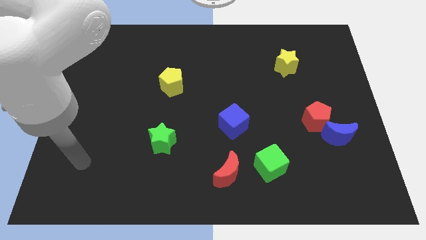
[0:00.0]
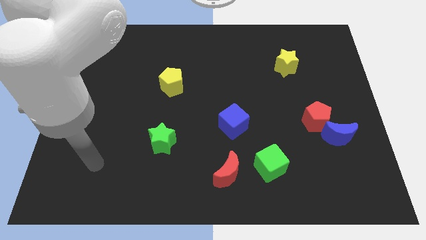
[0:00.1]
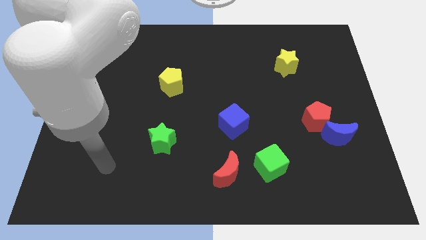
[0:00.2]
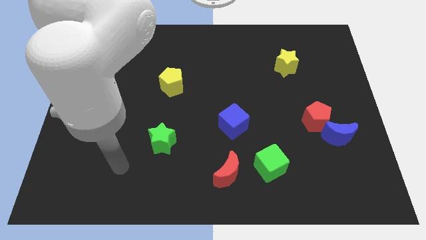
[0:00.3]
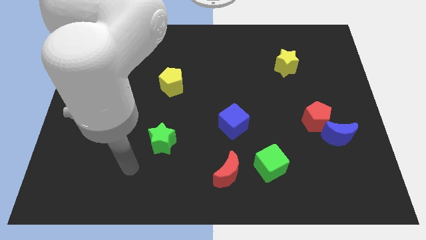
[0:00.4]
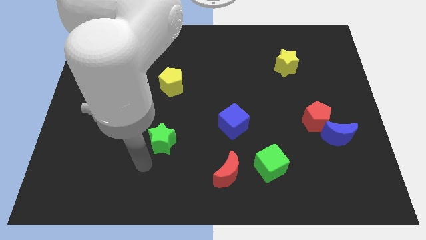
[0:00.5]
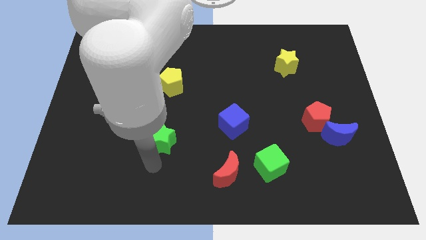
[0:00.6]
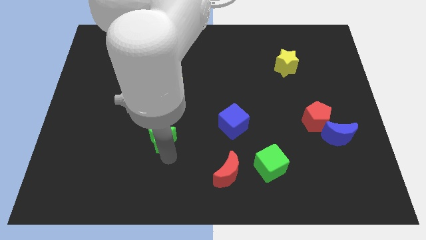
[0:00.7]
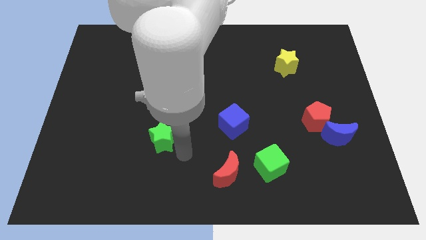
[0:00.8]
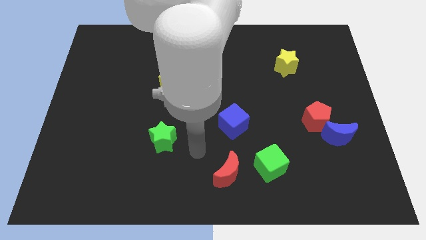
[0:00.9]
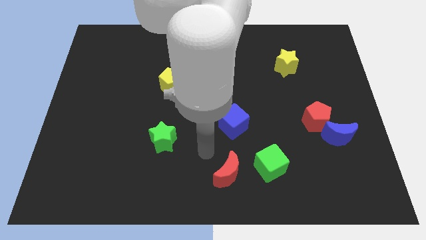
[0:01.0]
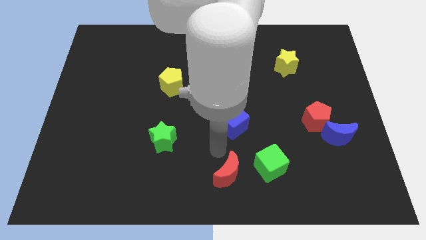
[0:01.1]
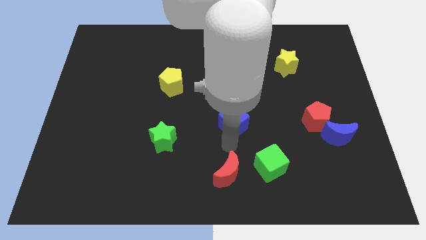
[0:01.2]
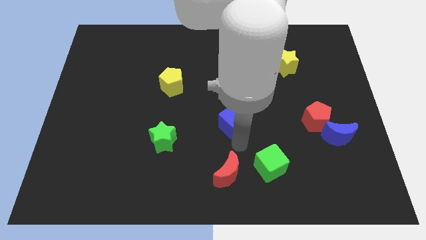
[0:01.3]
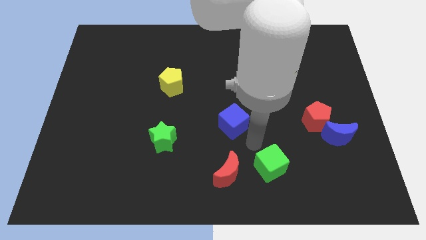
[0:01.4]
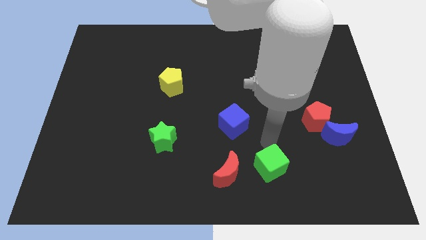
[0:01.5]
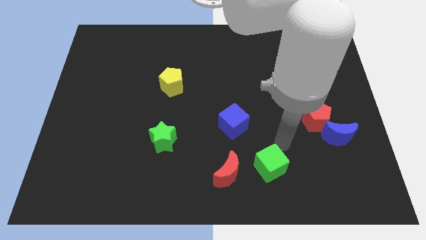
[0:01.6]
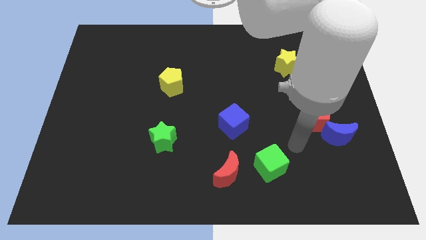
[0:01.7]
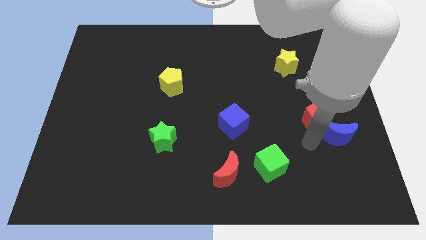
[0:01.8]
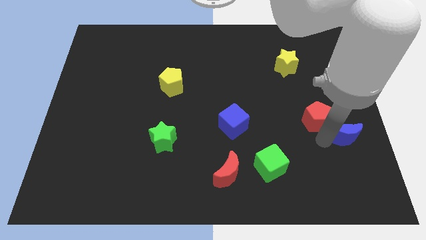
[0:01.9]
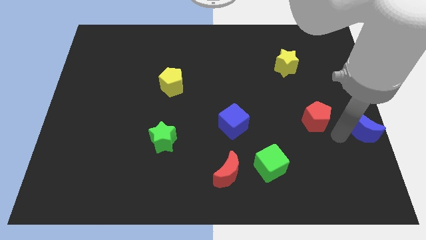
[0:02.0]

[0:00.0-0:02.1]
move the red pentagon away from the blue moon

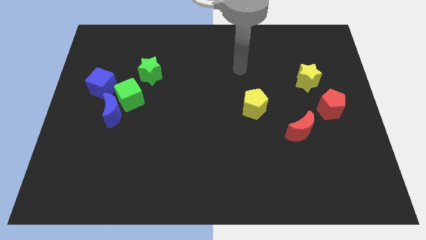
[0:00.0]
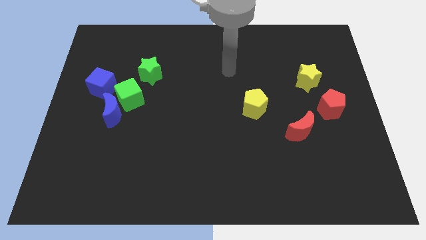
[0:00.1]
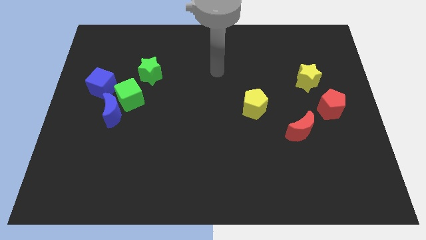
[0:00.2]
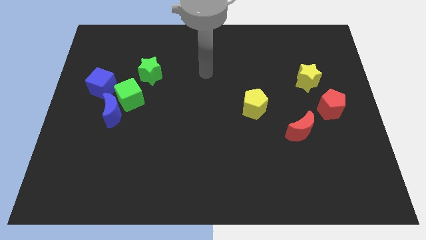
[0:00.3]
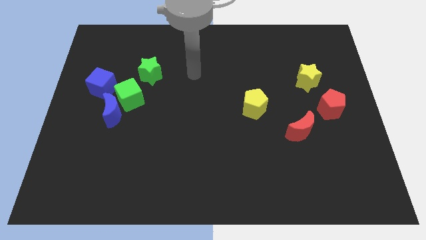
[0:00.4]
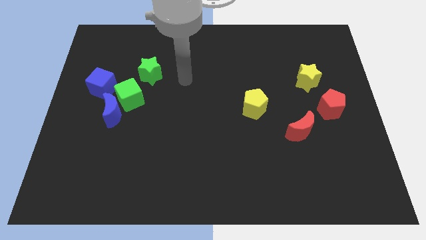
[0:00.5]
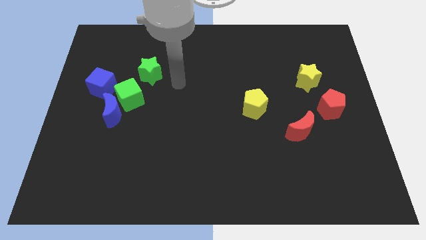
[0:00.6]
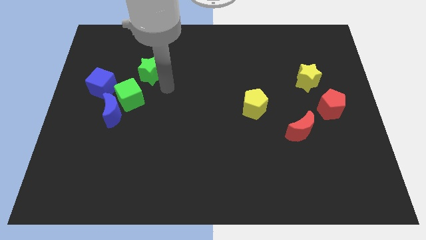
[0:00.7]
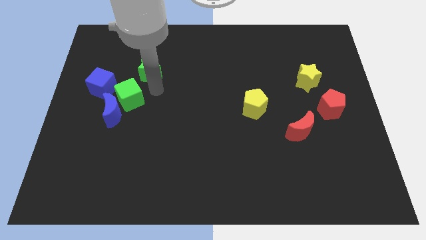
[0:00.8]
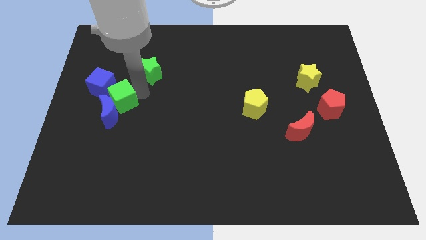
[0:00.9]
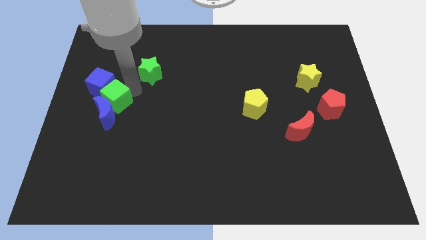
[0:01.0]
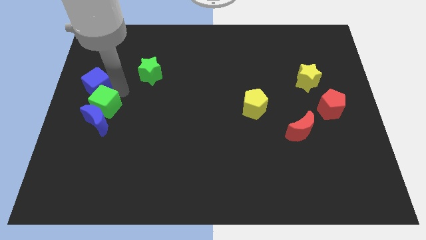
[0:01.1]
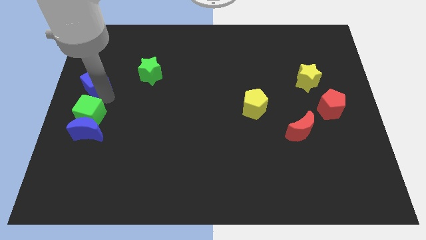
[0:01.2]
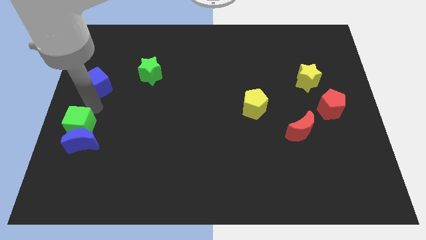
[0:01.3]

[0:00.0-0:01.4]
separate the blue moon from the green cube and blue cube

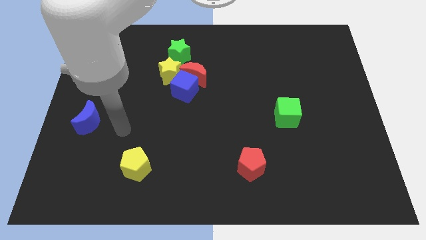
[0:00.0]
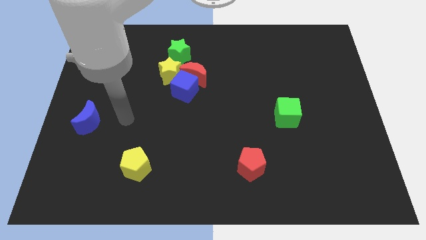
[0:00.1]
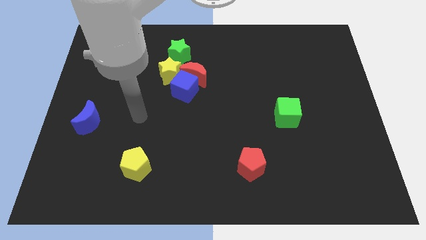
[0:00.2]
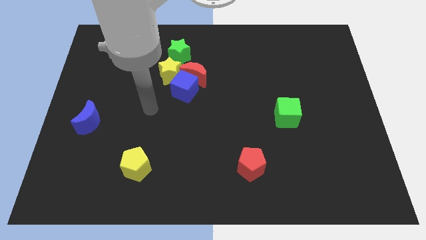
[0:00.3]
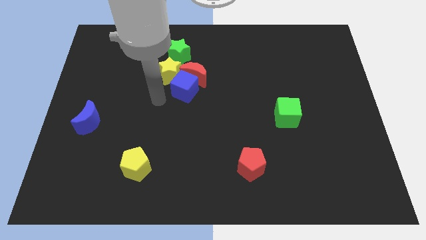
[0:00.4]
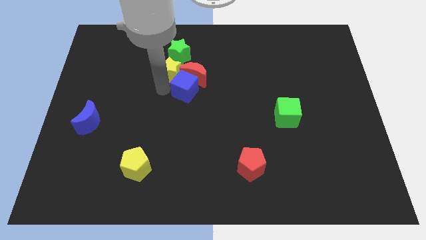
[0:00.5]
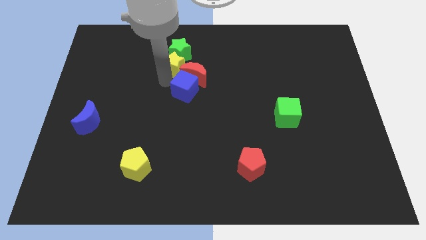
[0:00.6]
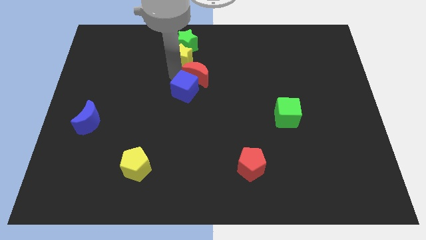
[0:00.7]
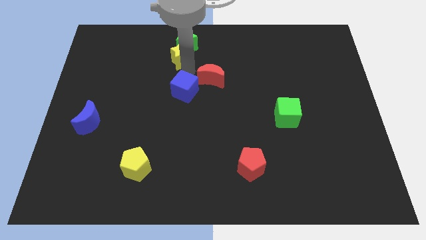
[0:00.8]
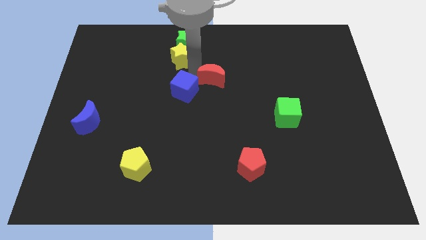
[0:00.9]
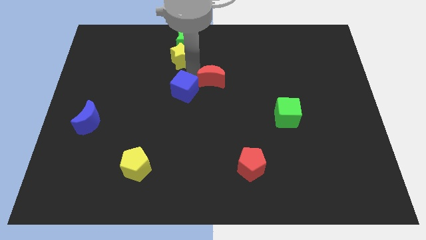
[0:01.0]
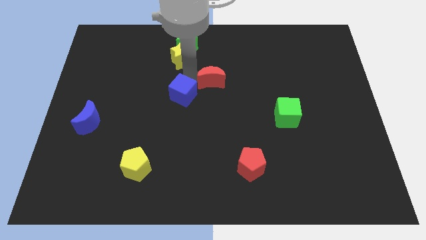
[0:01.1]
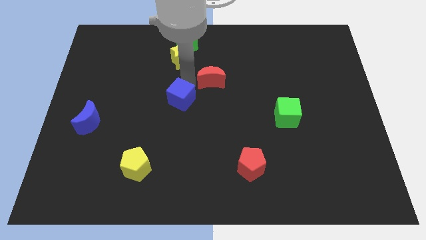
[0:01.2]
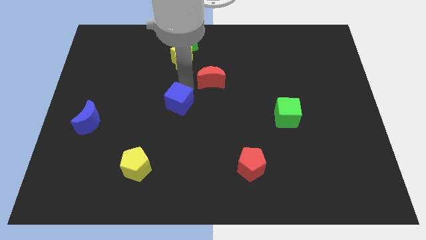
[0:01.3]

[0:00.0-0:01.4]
pull the blue cube apart from the red moon and yellow star

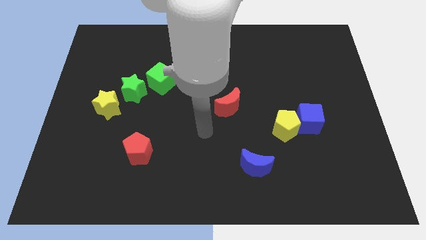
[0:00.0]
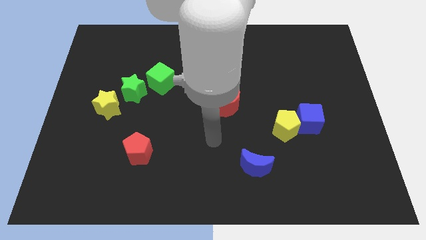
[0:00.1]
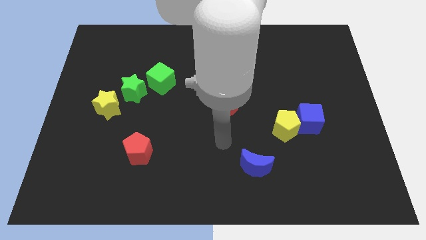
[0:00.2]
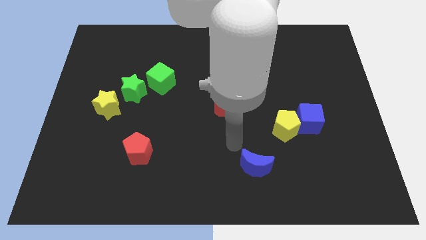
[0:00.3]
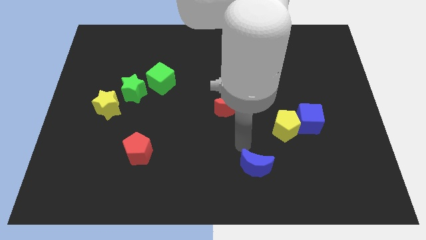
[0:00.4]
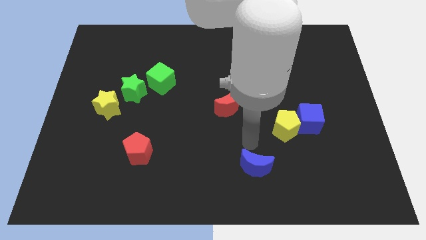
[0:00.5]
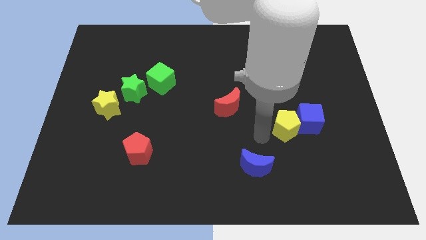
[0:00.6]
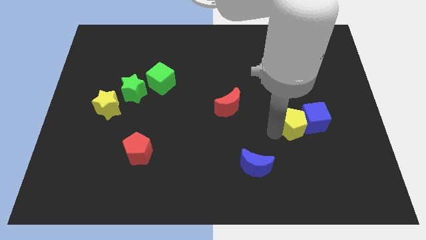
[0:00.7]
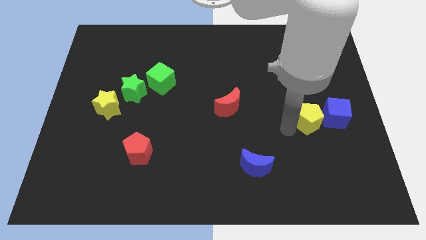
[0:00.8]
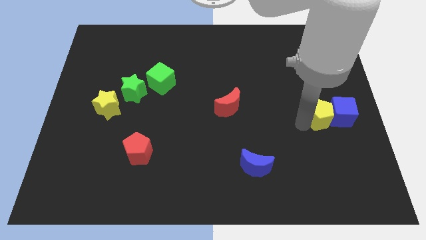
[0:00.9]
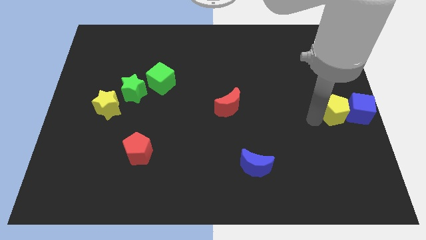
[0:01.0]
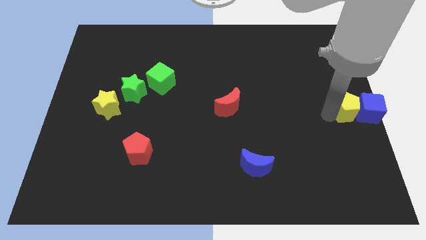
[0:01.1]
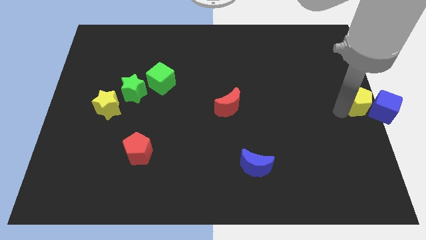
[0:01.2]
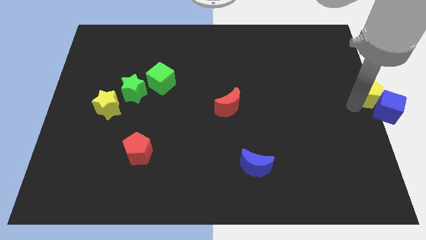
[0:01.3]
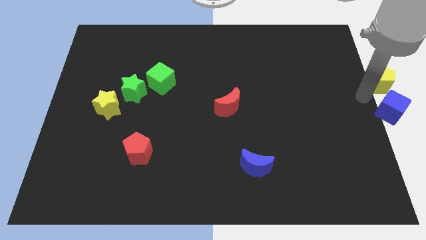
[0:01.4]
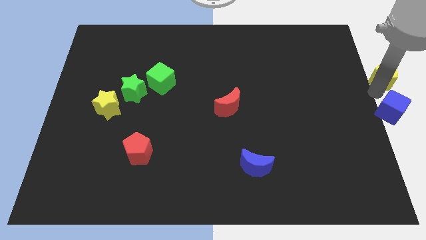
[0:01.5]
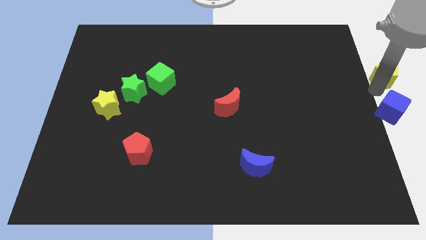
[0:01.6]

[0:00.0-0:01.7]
pull the blue cube apart from the yellow pentagon

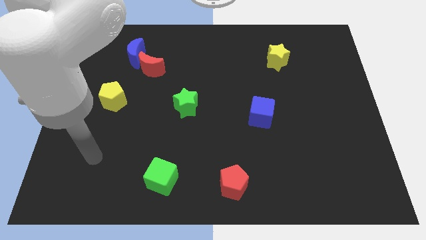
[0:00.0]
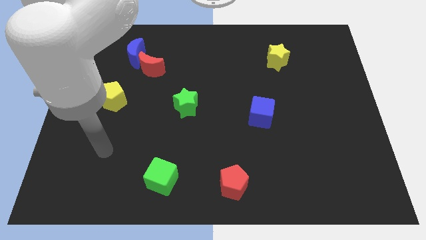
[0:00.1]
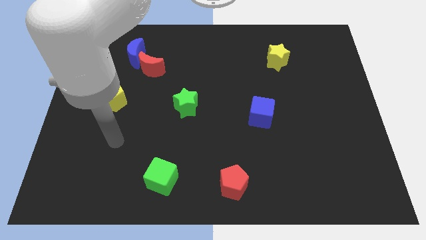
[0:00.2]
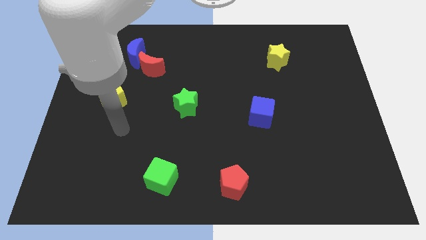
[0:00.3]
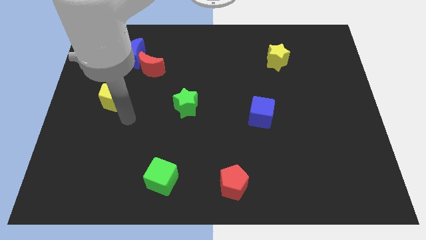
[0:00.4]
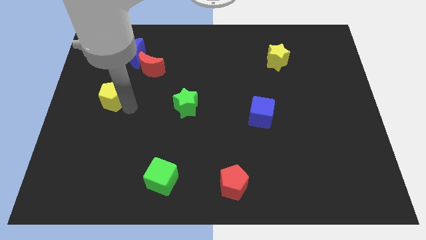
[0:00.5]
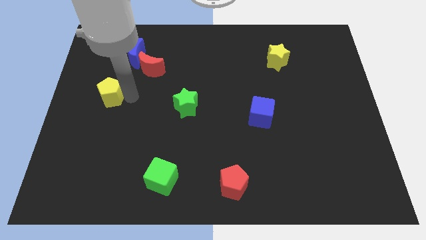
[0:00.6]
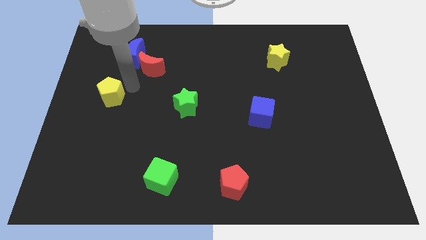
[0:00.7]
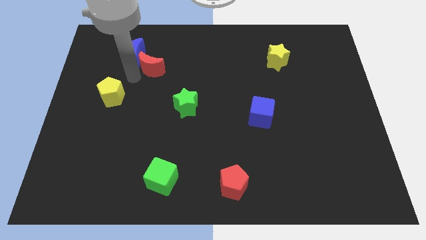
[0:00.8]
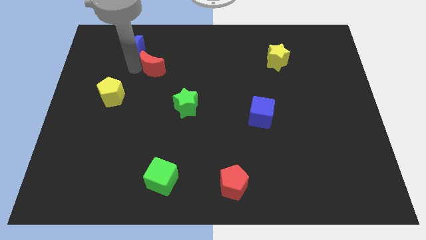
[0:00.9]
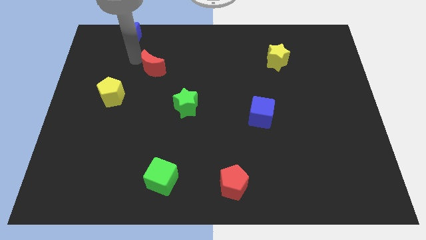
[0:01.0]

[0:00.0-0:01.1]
separate the red moon from the blue moon

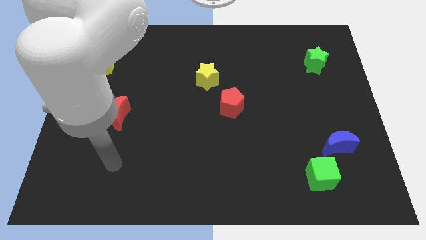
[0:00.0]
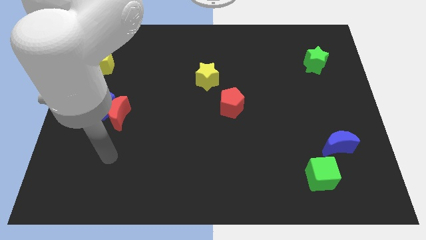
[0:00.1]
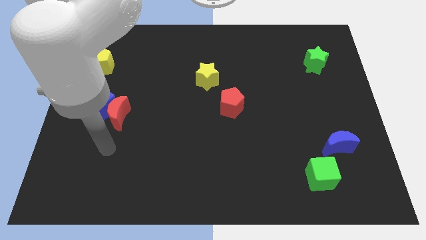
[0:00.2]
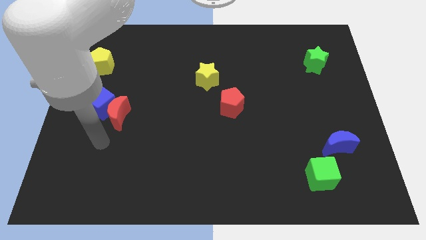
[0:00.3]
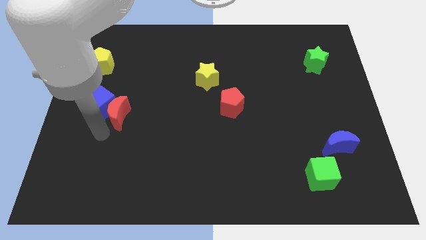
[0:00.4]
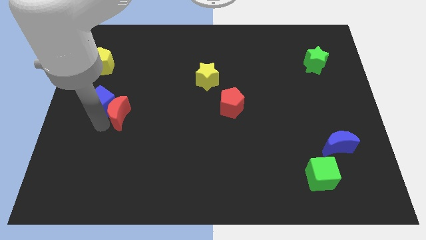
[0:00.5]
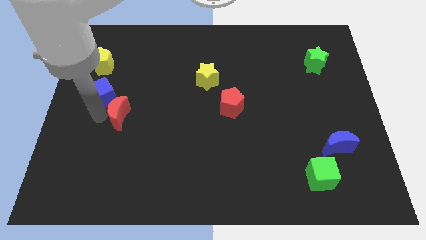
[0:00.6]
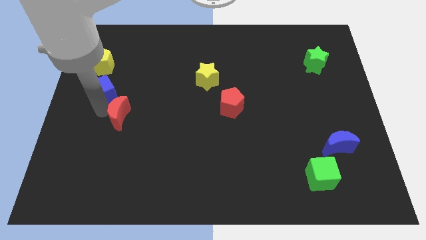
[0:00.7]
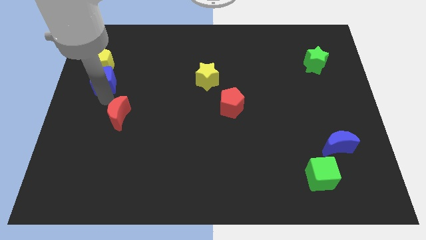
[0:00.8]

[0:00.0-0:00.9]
pull the red moon apart from the blue cube

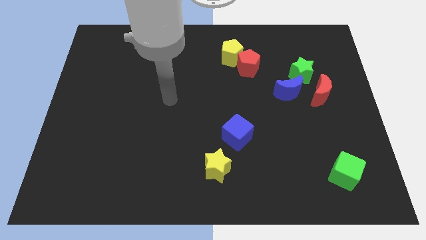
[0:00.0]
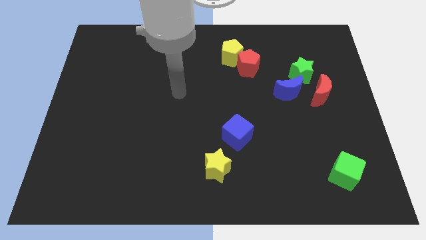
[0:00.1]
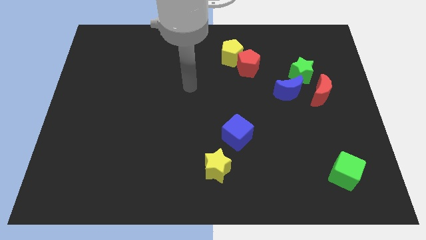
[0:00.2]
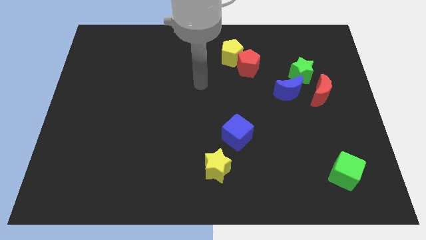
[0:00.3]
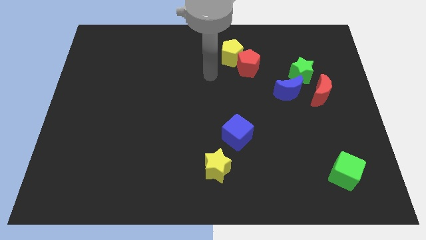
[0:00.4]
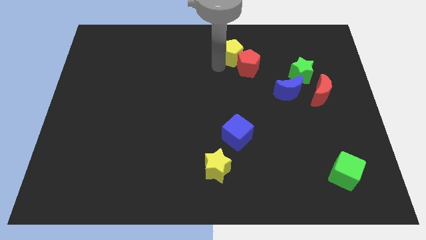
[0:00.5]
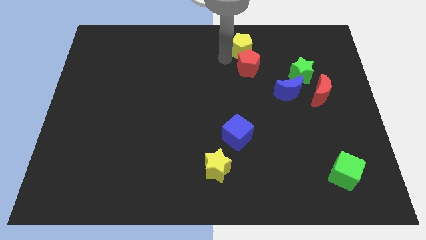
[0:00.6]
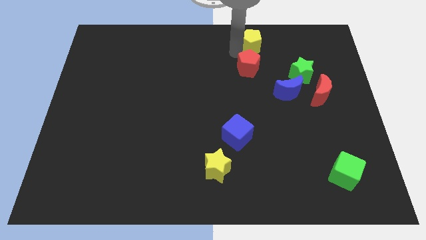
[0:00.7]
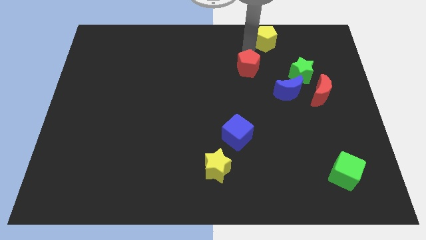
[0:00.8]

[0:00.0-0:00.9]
separate the red pentagon from the yellow pentagon
